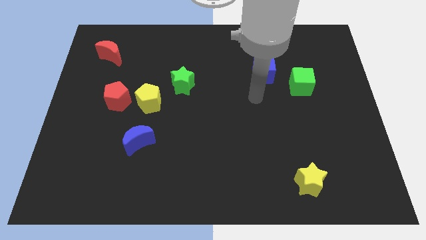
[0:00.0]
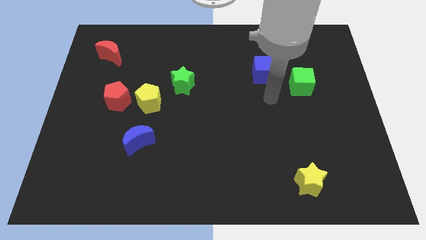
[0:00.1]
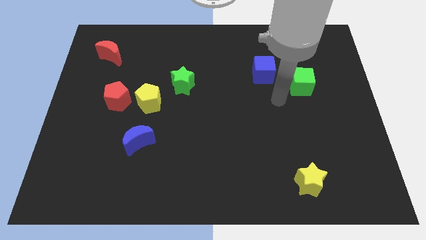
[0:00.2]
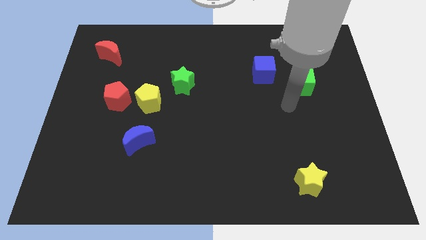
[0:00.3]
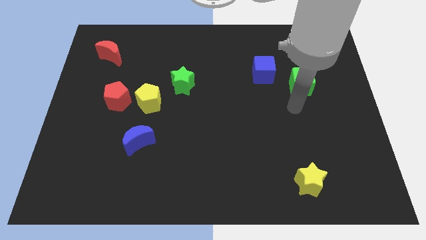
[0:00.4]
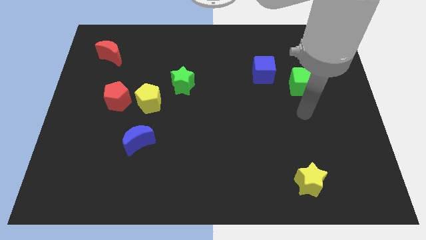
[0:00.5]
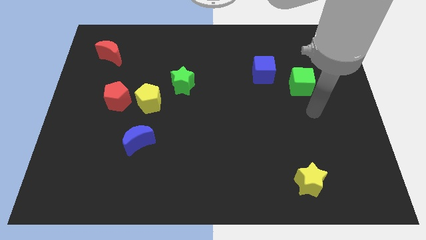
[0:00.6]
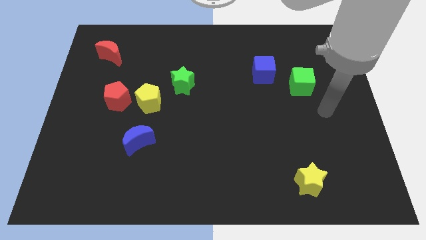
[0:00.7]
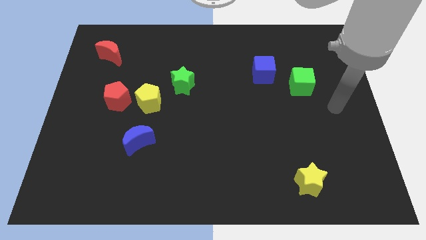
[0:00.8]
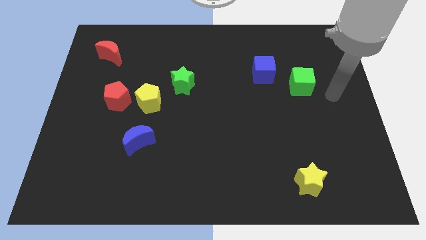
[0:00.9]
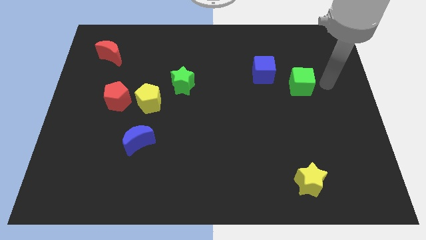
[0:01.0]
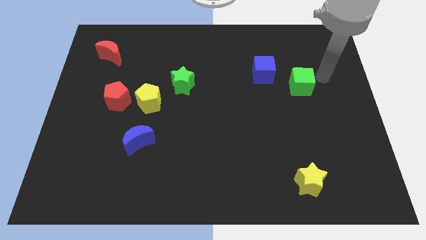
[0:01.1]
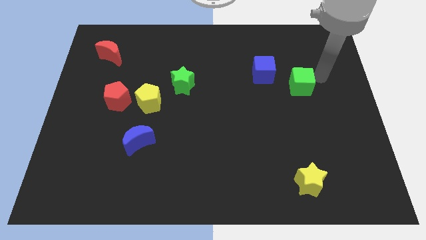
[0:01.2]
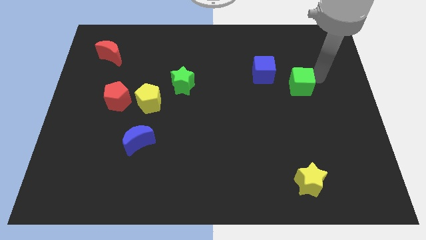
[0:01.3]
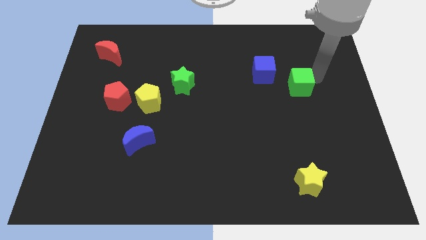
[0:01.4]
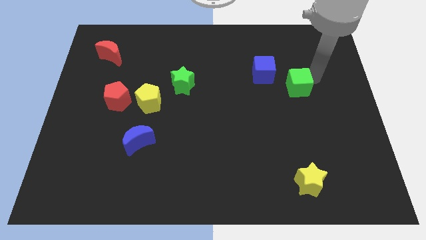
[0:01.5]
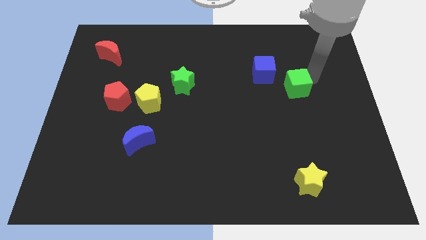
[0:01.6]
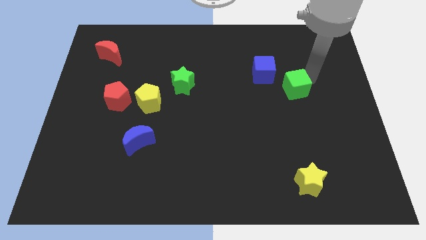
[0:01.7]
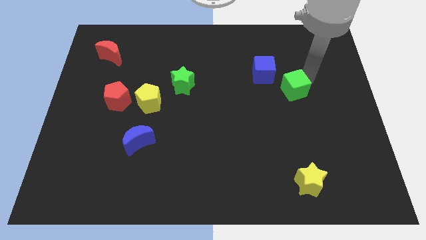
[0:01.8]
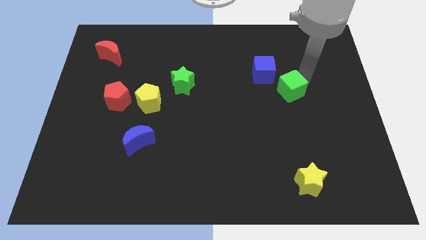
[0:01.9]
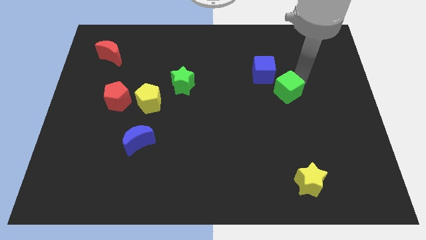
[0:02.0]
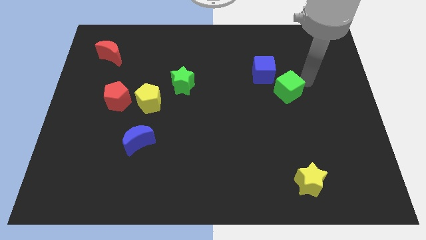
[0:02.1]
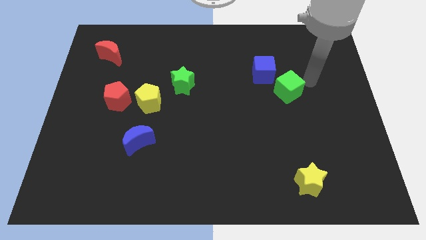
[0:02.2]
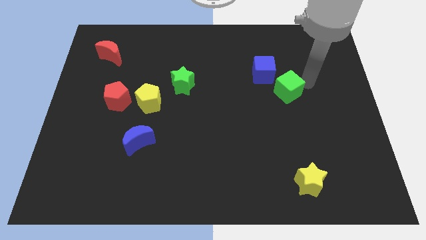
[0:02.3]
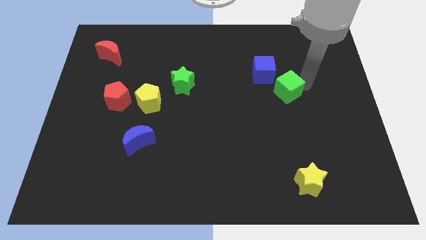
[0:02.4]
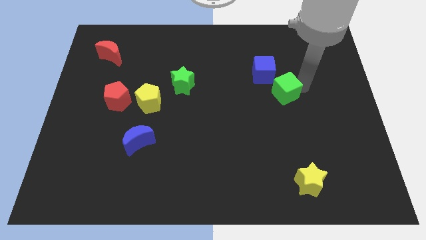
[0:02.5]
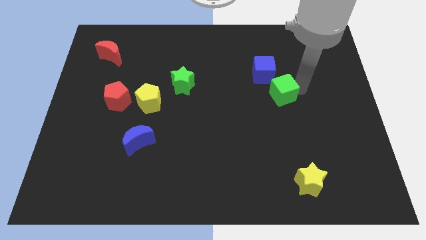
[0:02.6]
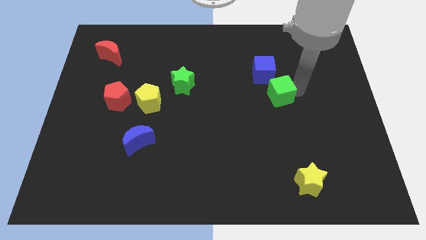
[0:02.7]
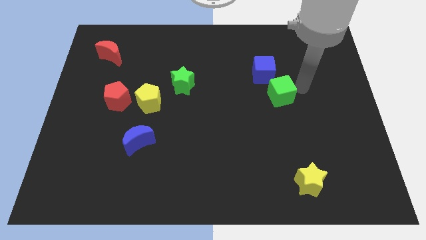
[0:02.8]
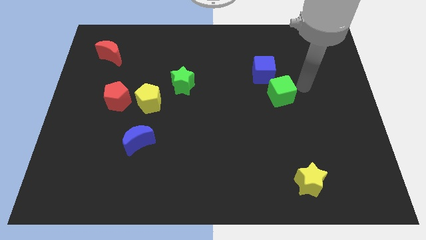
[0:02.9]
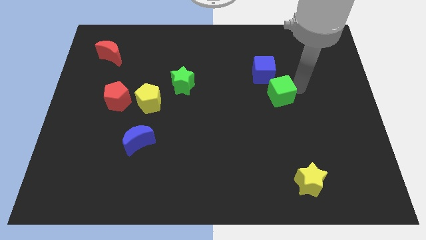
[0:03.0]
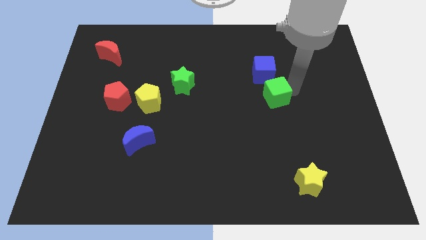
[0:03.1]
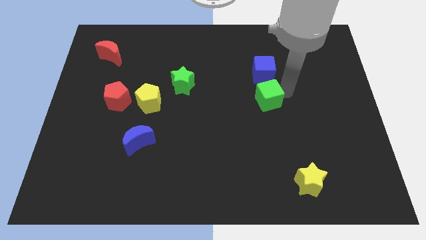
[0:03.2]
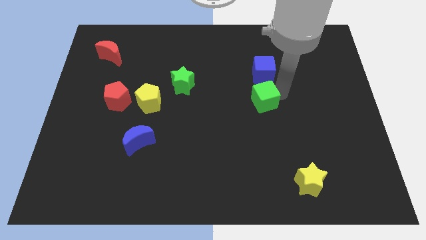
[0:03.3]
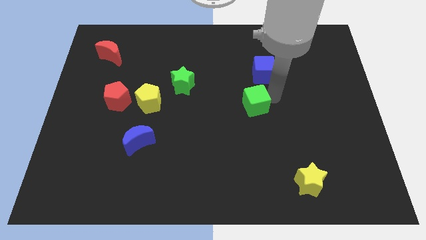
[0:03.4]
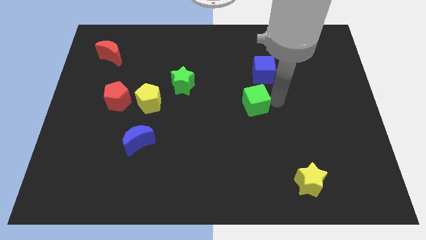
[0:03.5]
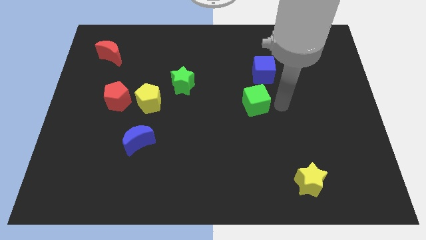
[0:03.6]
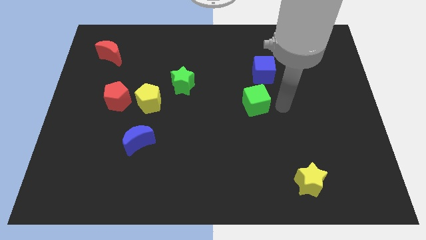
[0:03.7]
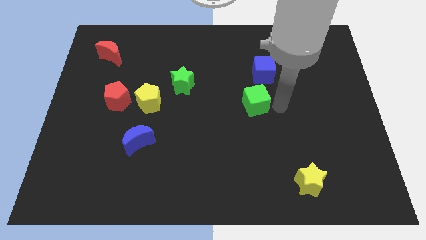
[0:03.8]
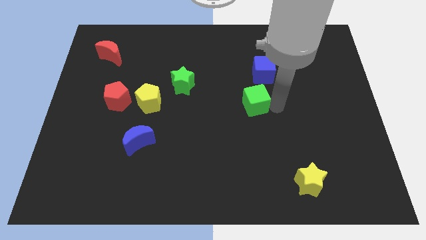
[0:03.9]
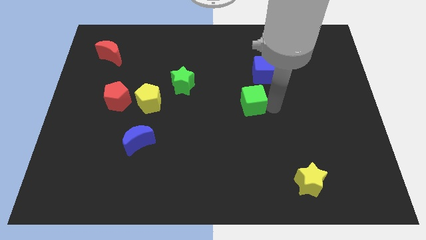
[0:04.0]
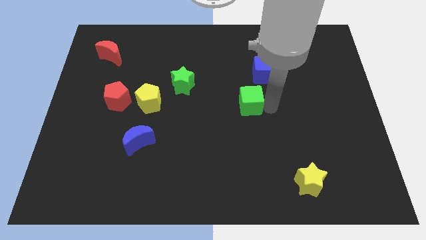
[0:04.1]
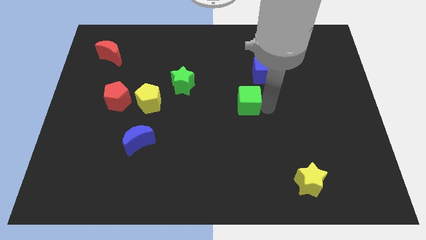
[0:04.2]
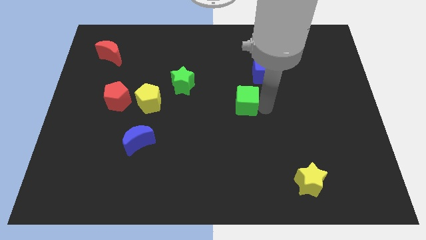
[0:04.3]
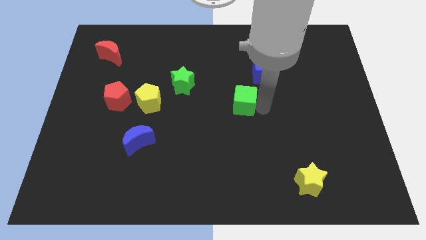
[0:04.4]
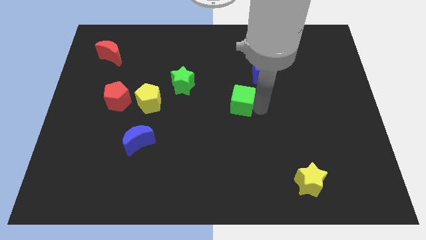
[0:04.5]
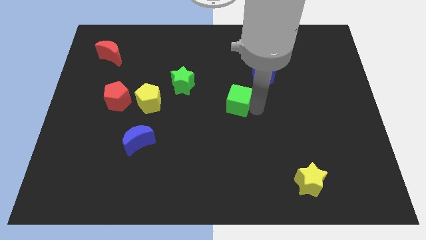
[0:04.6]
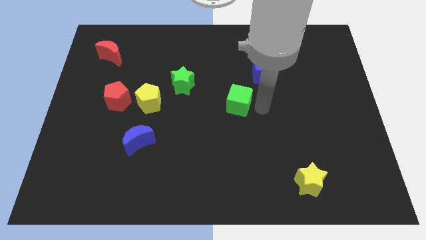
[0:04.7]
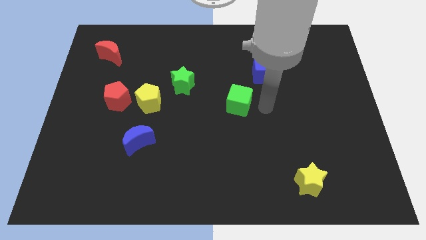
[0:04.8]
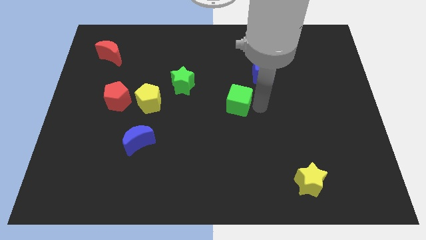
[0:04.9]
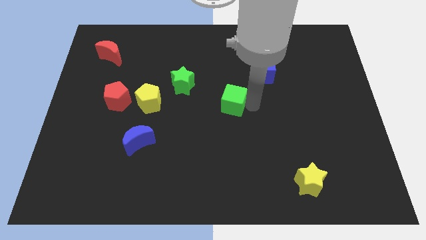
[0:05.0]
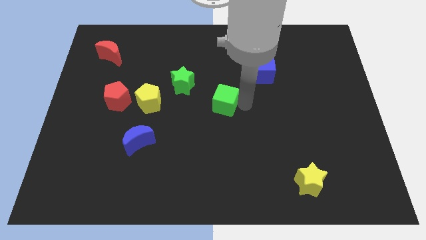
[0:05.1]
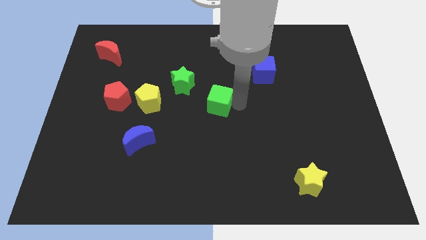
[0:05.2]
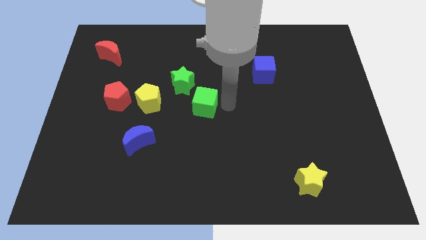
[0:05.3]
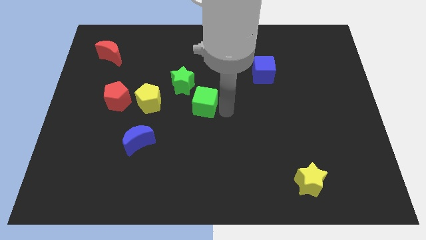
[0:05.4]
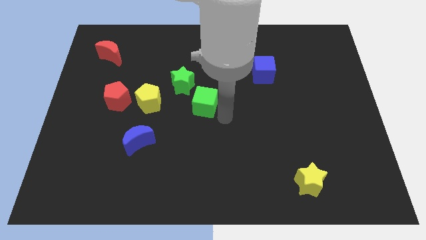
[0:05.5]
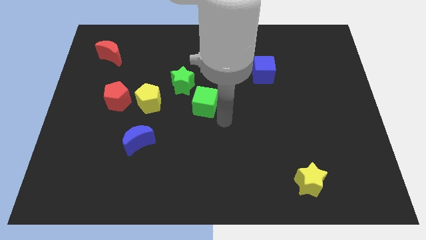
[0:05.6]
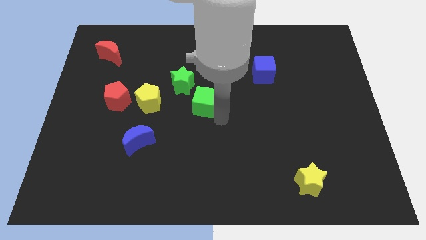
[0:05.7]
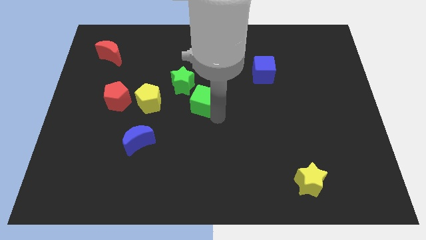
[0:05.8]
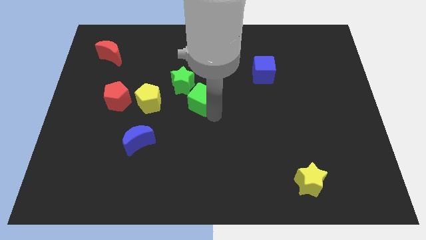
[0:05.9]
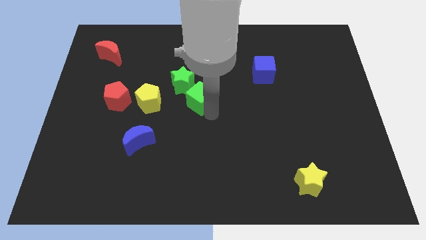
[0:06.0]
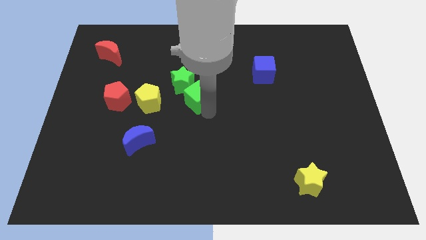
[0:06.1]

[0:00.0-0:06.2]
put the green cube close to the green star
